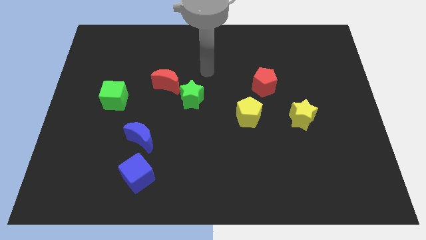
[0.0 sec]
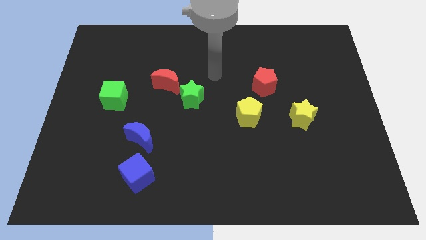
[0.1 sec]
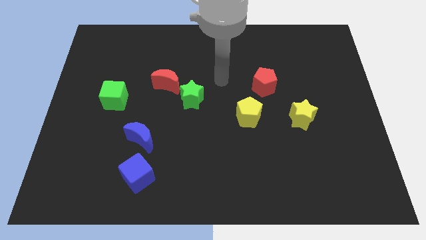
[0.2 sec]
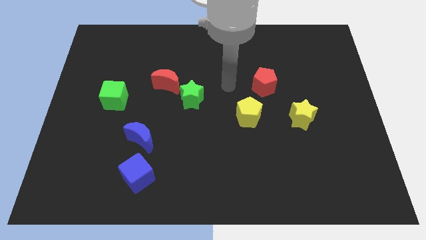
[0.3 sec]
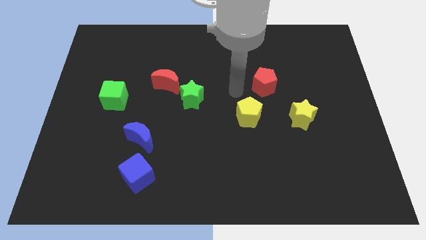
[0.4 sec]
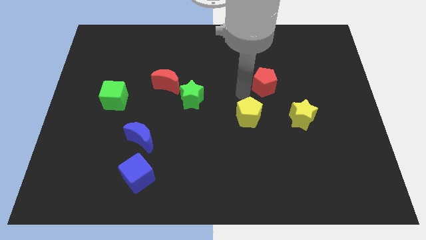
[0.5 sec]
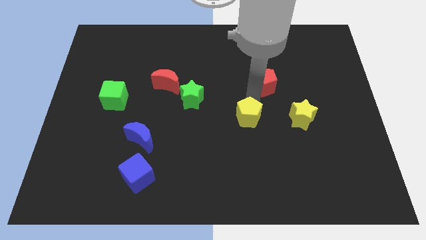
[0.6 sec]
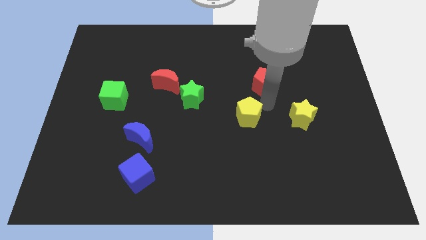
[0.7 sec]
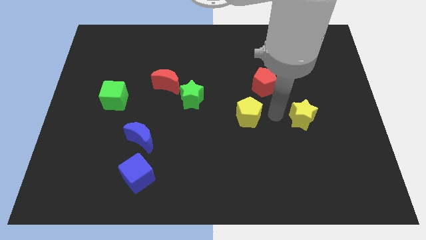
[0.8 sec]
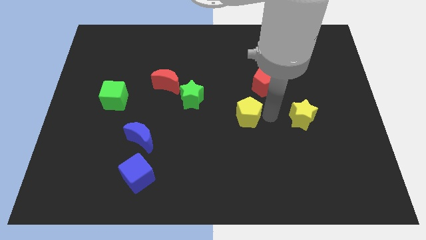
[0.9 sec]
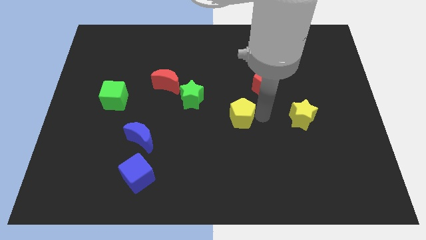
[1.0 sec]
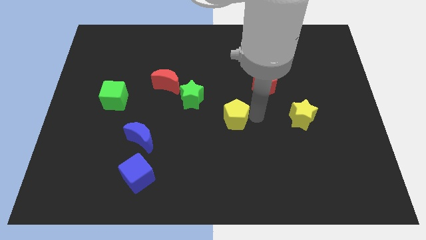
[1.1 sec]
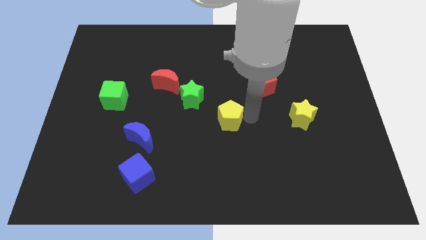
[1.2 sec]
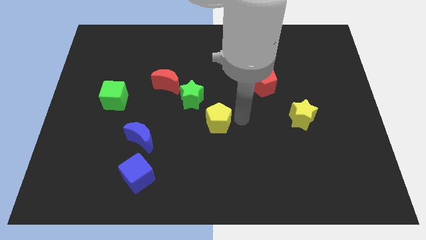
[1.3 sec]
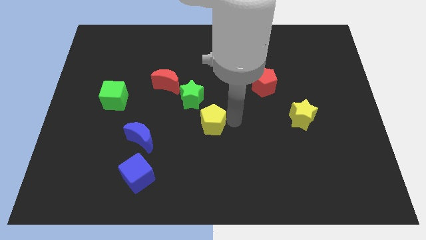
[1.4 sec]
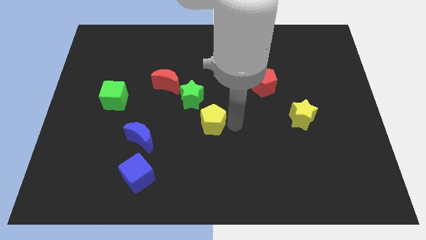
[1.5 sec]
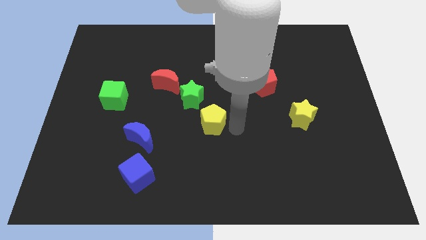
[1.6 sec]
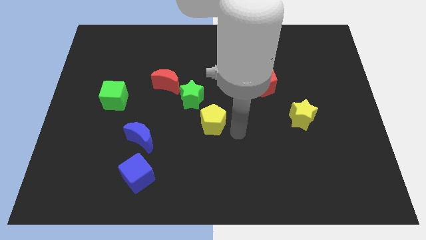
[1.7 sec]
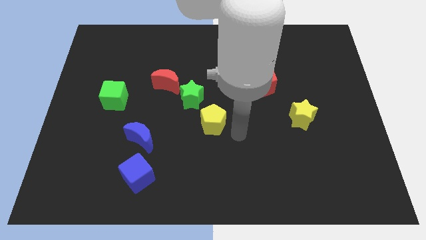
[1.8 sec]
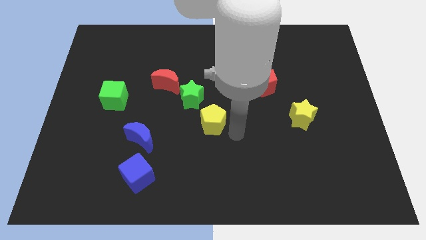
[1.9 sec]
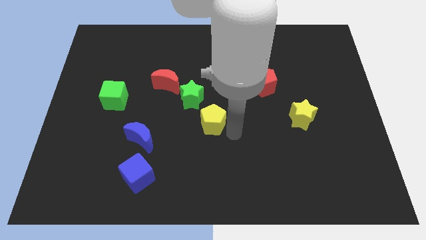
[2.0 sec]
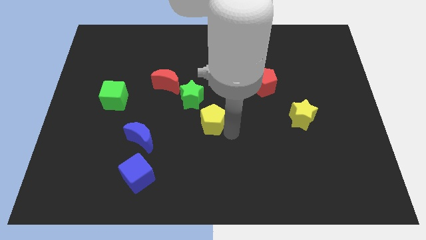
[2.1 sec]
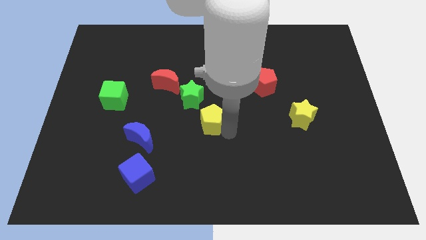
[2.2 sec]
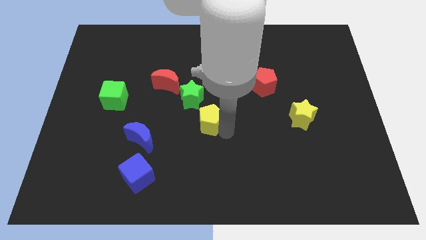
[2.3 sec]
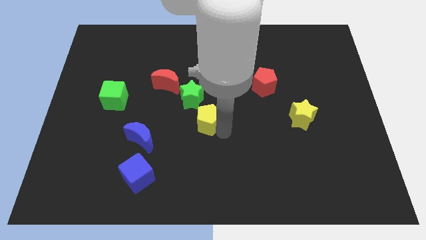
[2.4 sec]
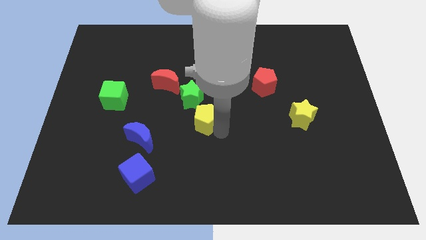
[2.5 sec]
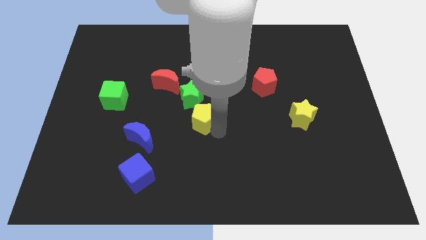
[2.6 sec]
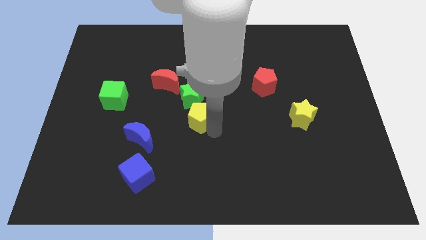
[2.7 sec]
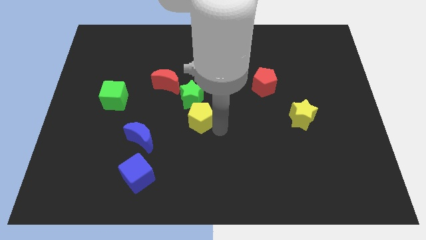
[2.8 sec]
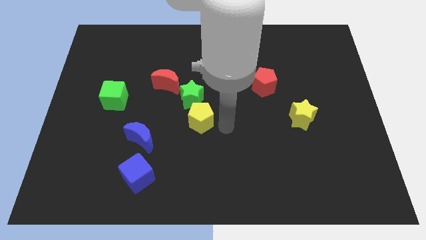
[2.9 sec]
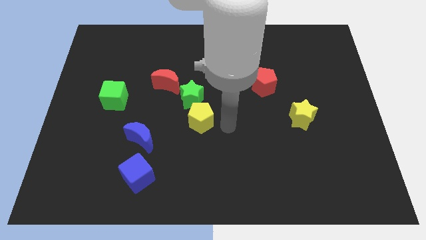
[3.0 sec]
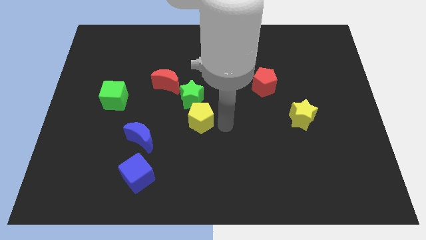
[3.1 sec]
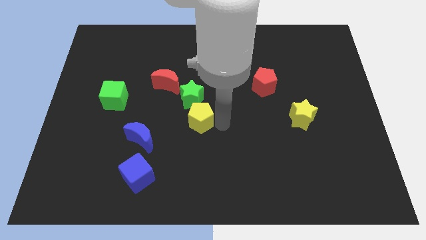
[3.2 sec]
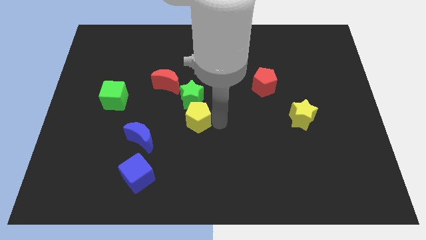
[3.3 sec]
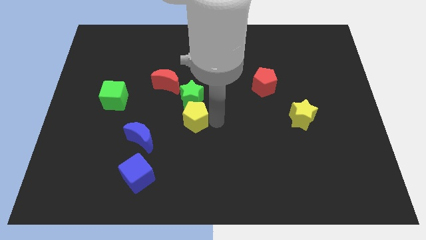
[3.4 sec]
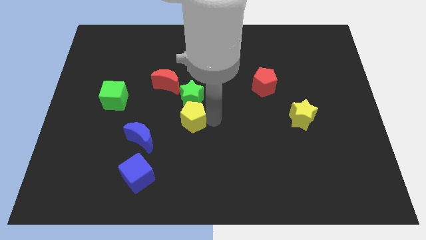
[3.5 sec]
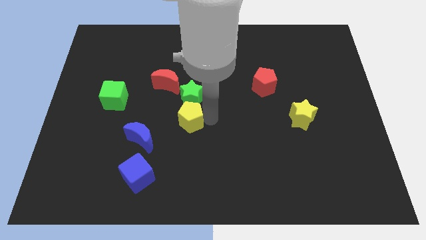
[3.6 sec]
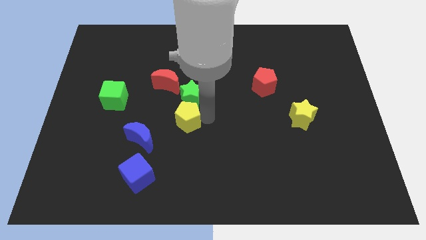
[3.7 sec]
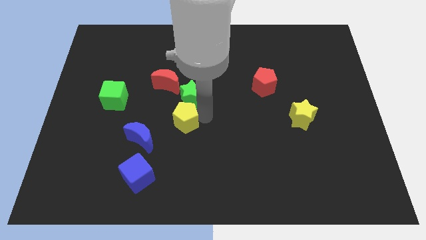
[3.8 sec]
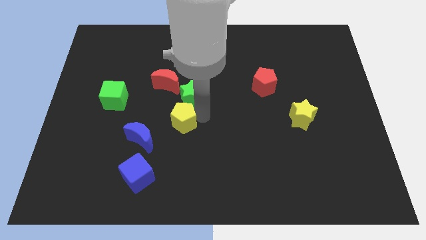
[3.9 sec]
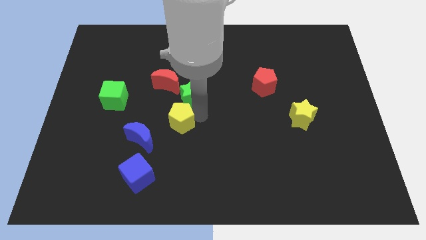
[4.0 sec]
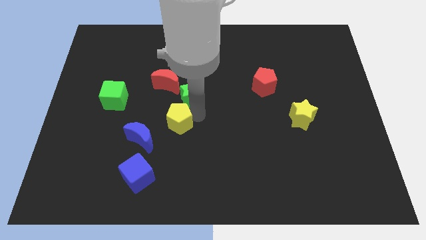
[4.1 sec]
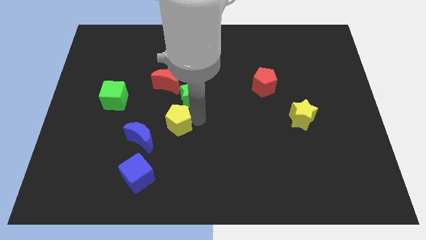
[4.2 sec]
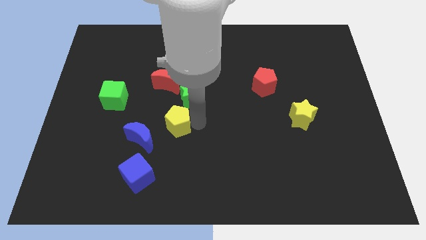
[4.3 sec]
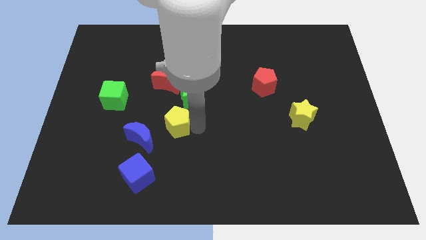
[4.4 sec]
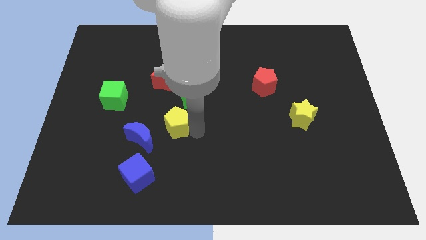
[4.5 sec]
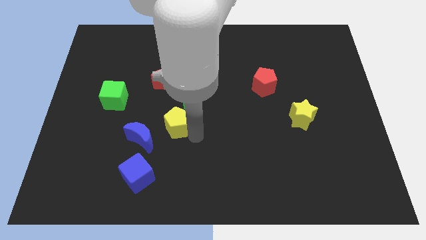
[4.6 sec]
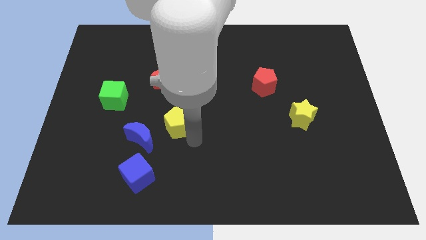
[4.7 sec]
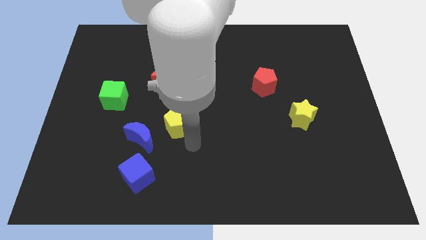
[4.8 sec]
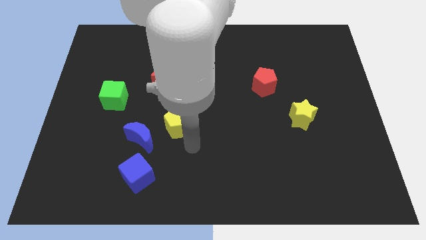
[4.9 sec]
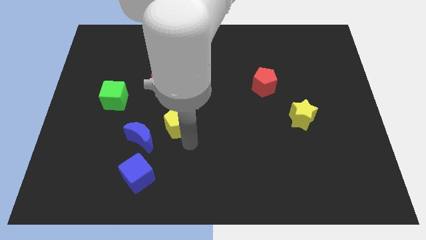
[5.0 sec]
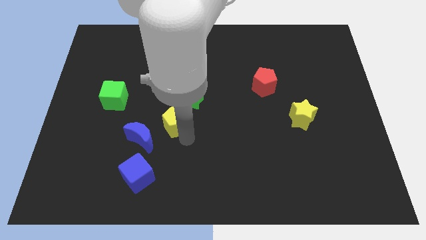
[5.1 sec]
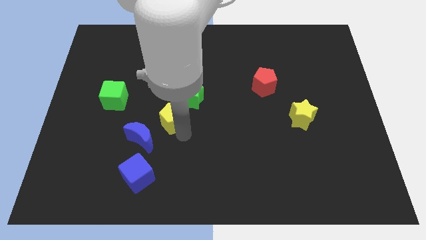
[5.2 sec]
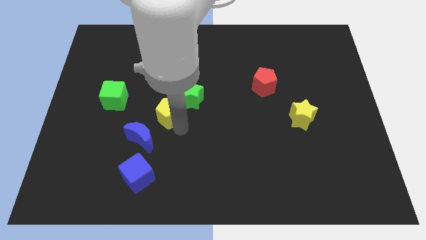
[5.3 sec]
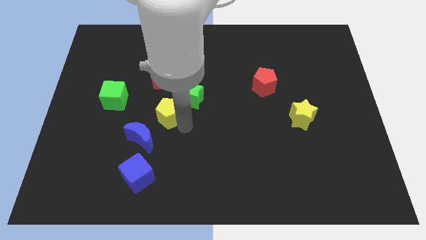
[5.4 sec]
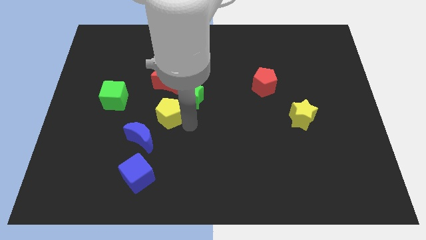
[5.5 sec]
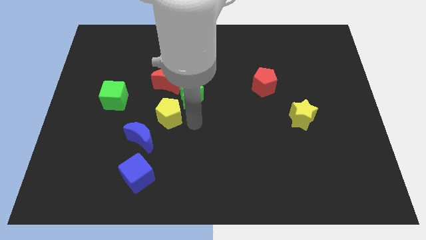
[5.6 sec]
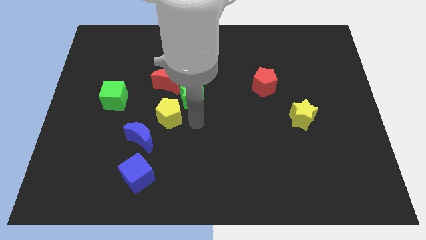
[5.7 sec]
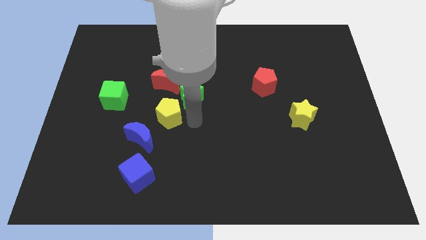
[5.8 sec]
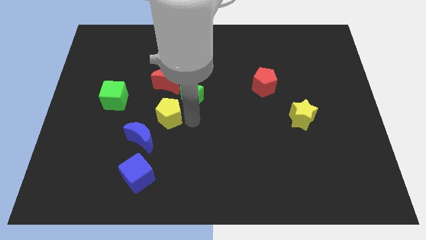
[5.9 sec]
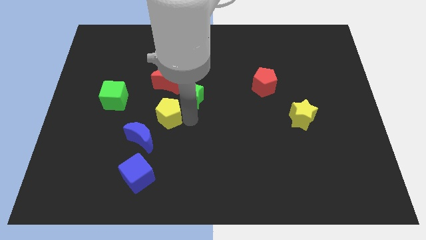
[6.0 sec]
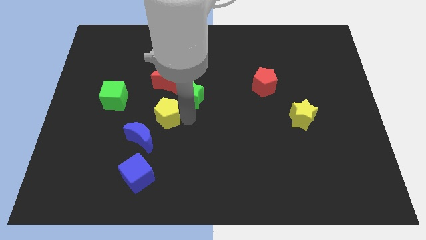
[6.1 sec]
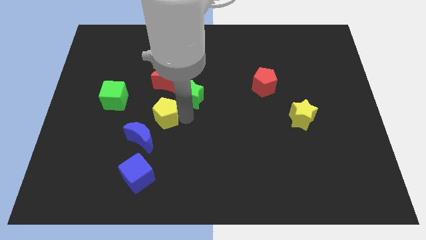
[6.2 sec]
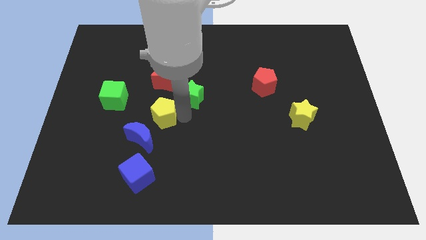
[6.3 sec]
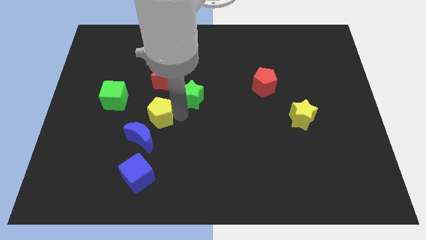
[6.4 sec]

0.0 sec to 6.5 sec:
move the yellow pentagon to the left

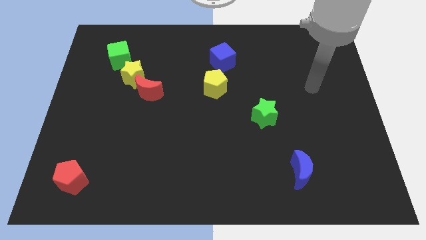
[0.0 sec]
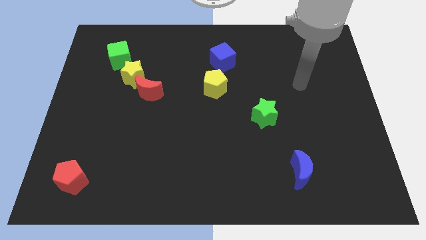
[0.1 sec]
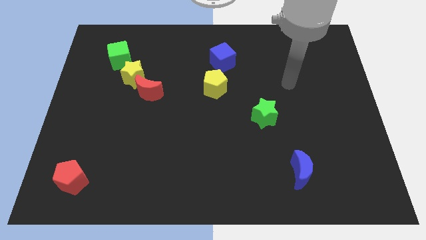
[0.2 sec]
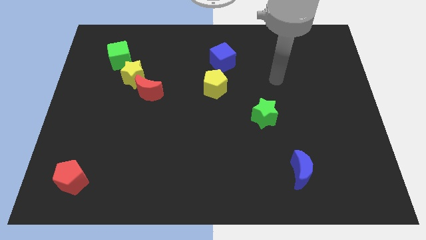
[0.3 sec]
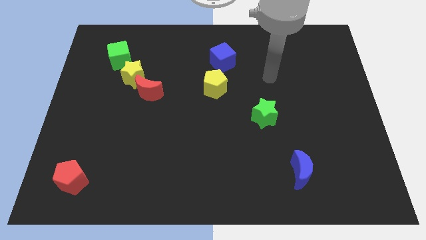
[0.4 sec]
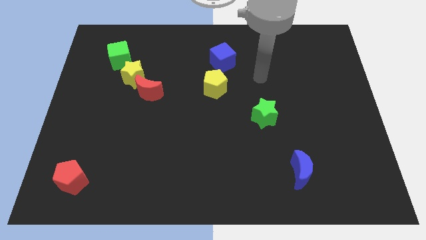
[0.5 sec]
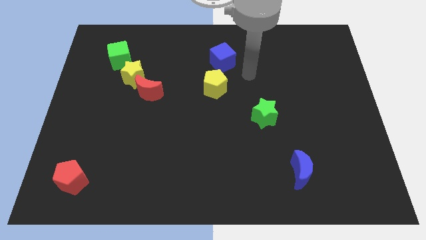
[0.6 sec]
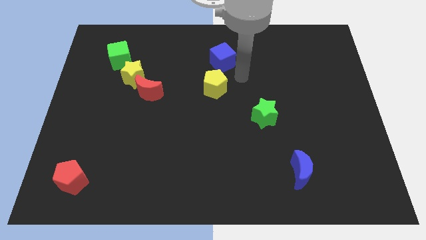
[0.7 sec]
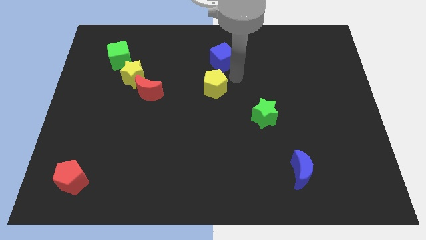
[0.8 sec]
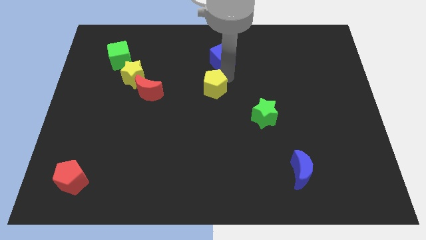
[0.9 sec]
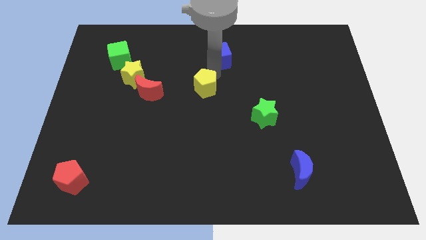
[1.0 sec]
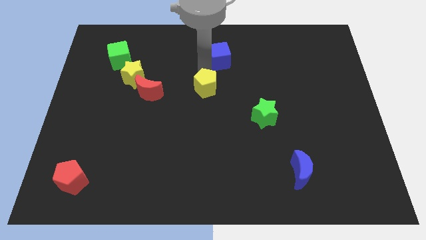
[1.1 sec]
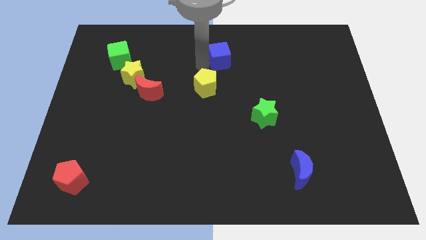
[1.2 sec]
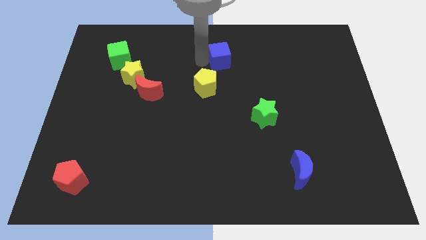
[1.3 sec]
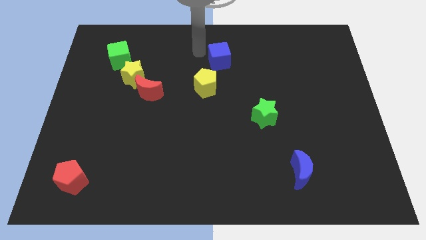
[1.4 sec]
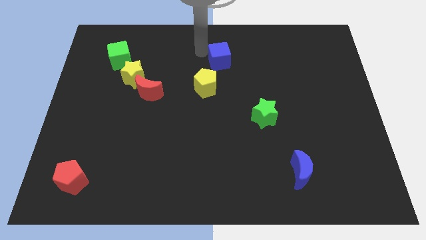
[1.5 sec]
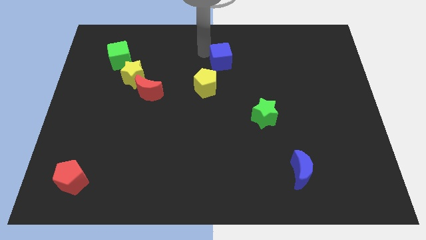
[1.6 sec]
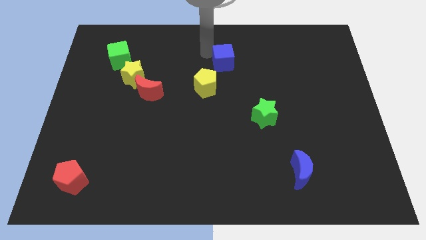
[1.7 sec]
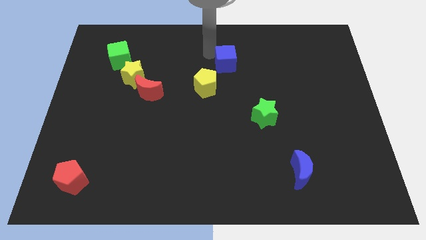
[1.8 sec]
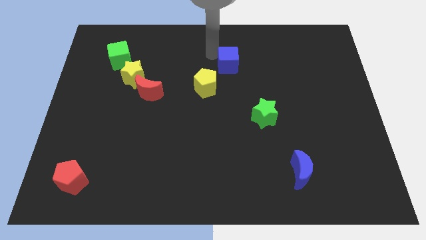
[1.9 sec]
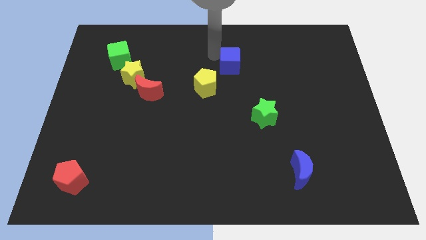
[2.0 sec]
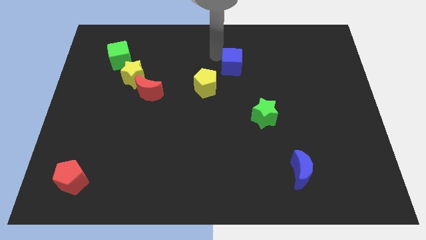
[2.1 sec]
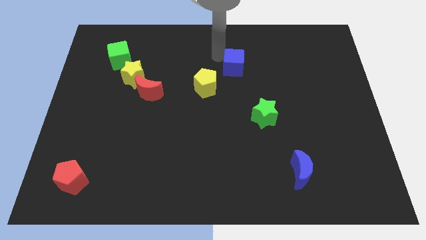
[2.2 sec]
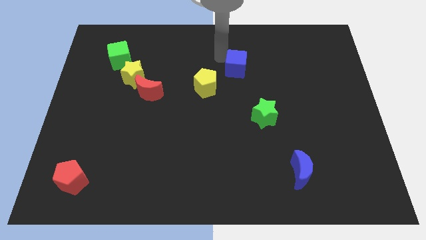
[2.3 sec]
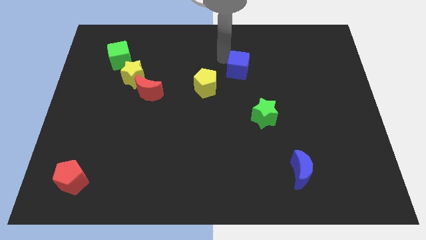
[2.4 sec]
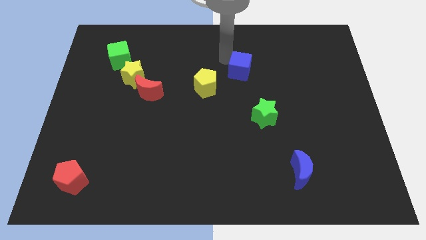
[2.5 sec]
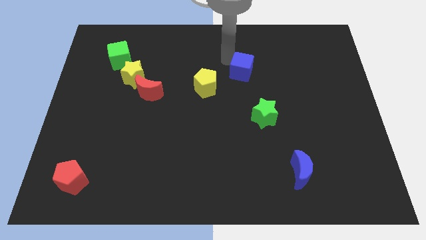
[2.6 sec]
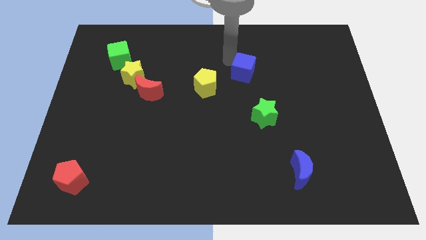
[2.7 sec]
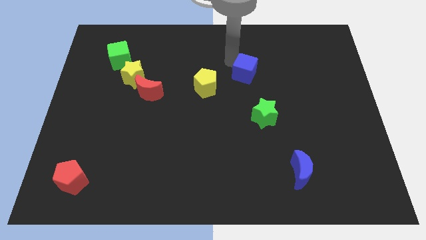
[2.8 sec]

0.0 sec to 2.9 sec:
slightly push the blue cube downwards and right
